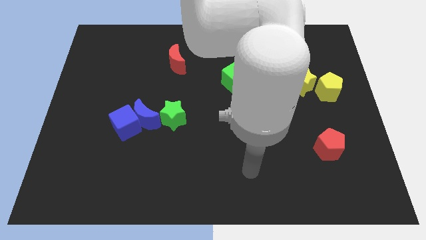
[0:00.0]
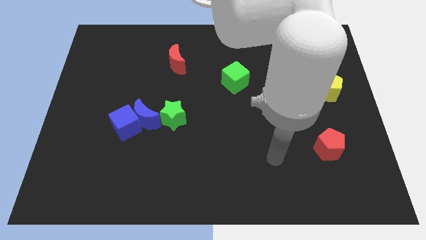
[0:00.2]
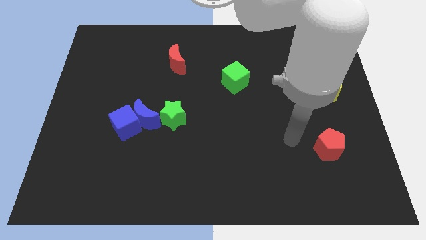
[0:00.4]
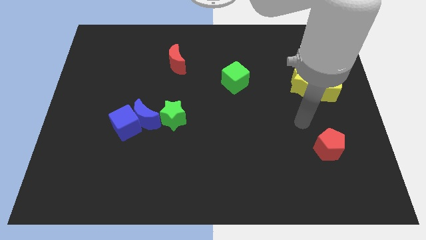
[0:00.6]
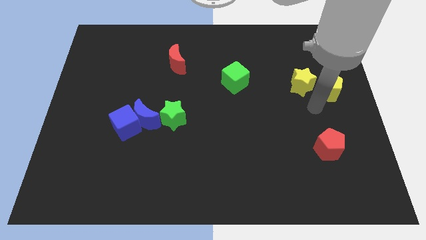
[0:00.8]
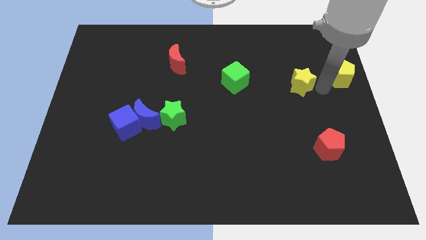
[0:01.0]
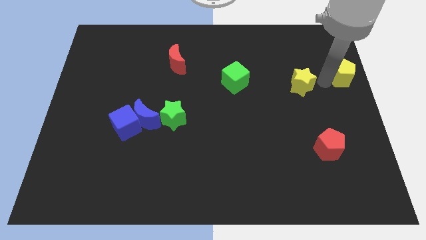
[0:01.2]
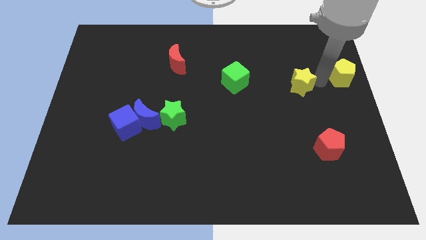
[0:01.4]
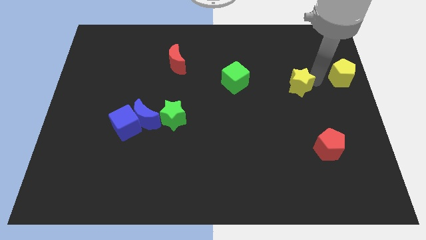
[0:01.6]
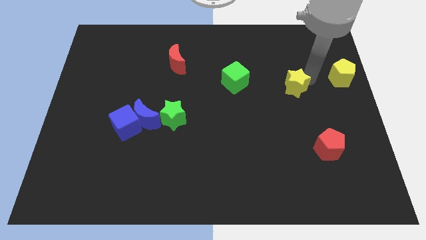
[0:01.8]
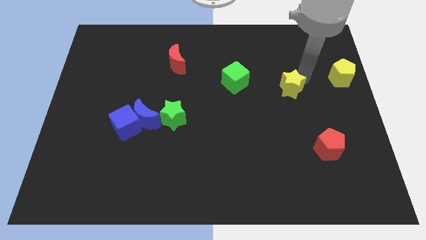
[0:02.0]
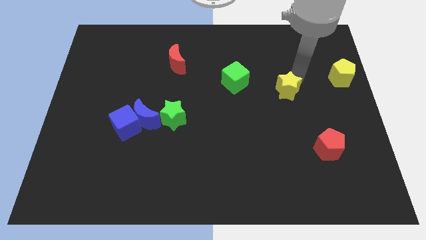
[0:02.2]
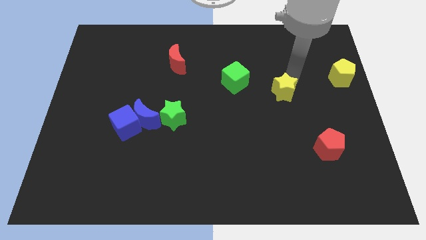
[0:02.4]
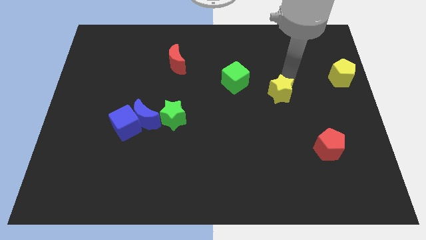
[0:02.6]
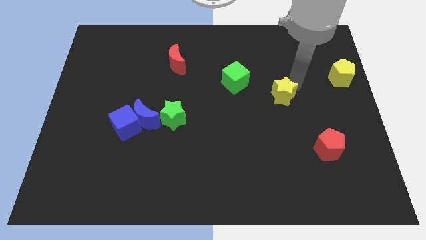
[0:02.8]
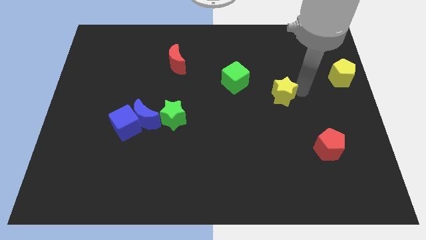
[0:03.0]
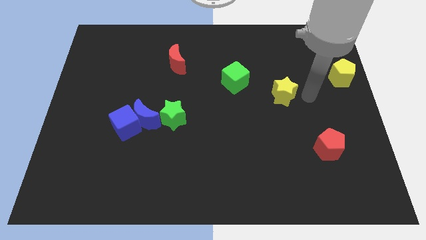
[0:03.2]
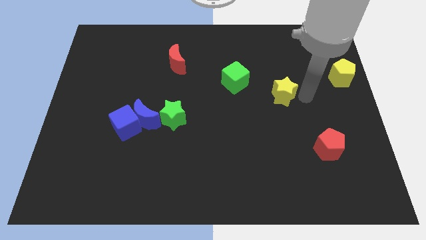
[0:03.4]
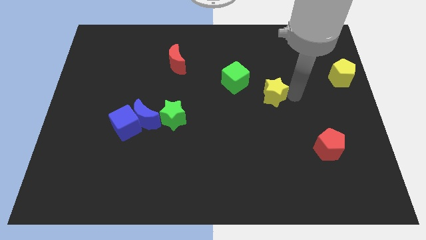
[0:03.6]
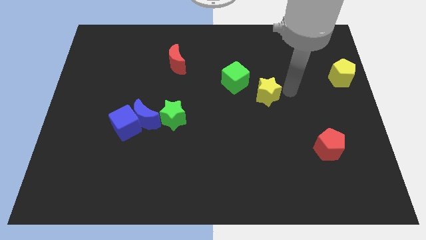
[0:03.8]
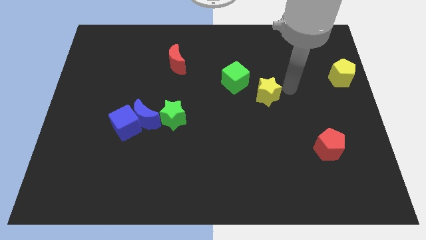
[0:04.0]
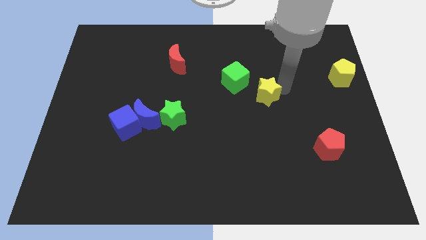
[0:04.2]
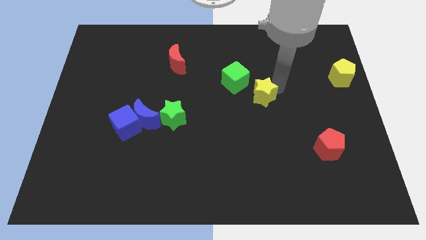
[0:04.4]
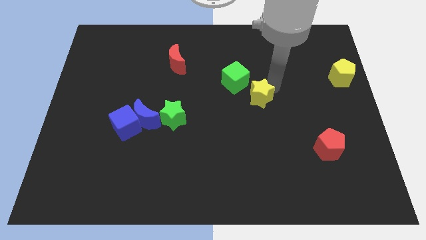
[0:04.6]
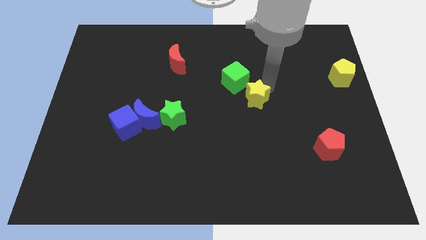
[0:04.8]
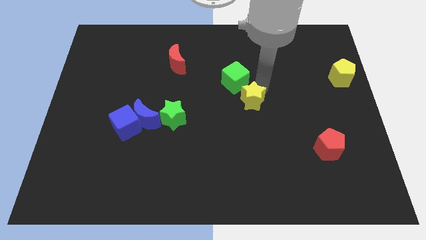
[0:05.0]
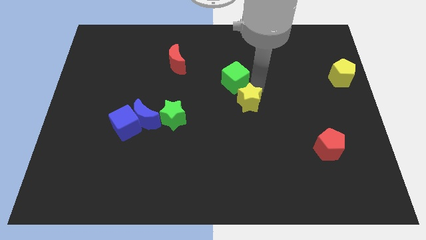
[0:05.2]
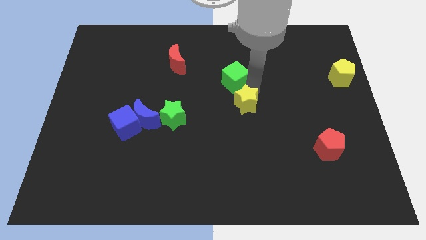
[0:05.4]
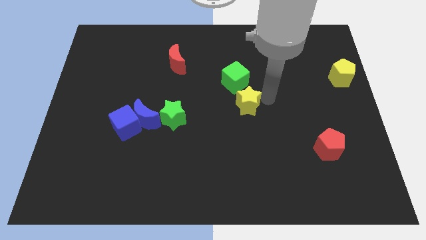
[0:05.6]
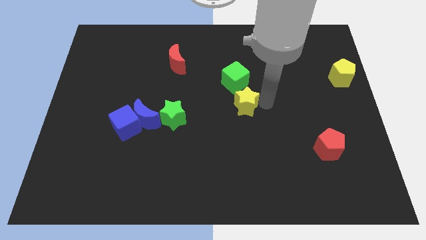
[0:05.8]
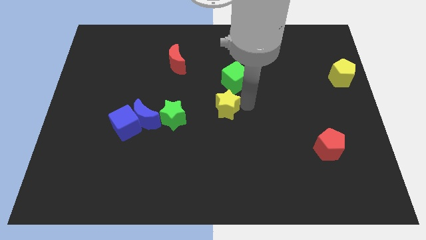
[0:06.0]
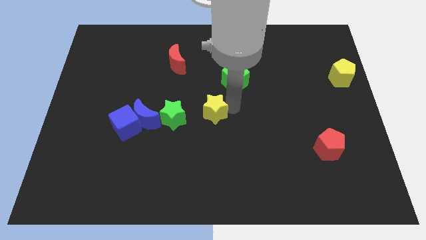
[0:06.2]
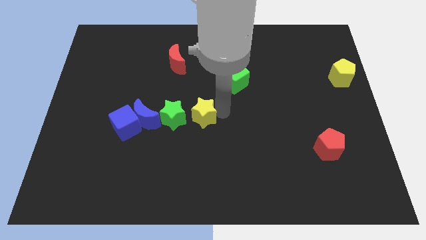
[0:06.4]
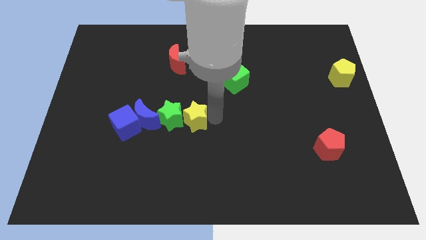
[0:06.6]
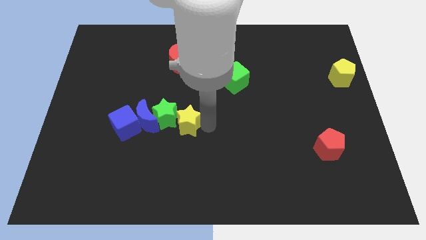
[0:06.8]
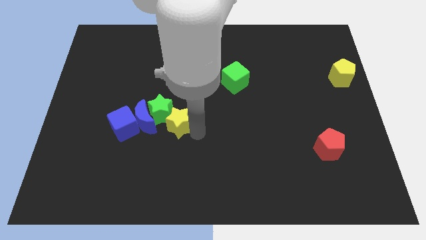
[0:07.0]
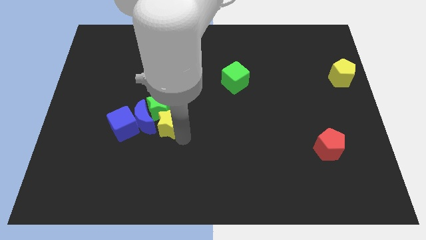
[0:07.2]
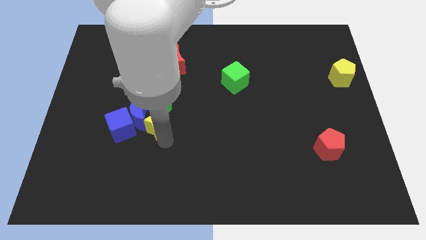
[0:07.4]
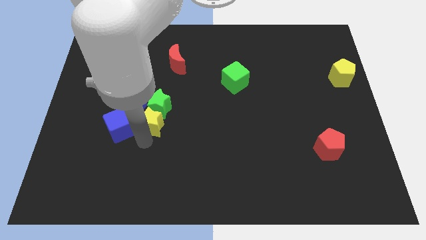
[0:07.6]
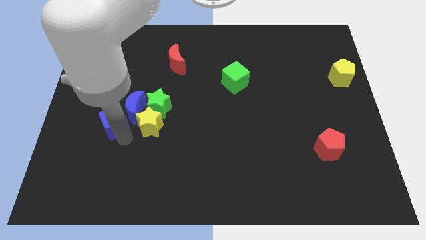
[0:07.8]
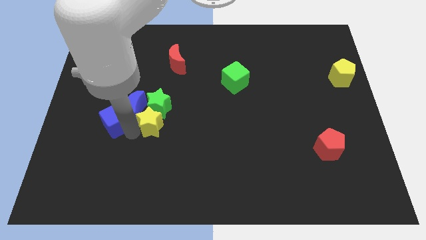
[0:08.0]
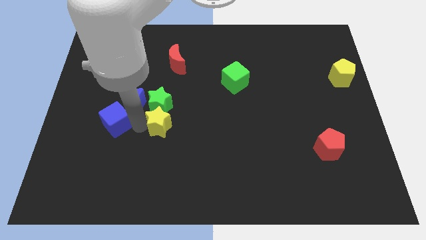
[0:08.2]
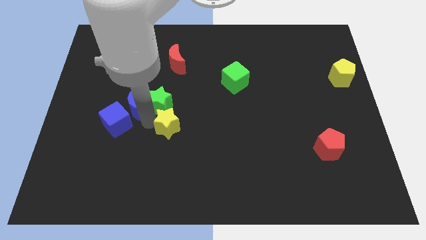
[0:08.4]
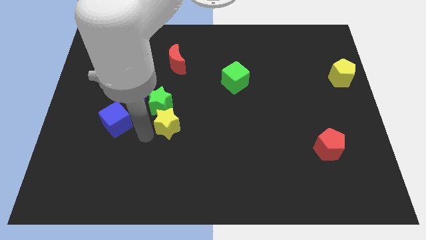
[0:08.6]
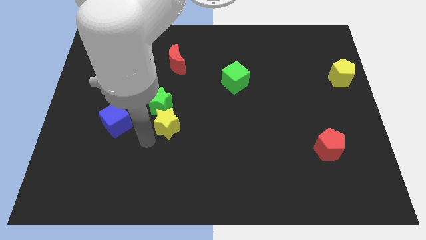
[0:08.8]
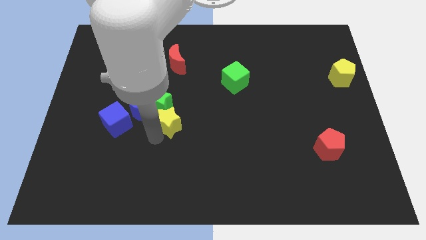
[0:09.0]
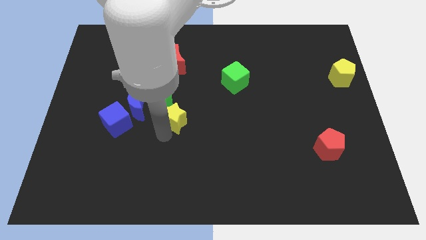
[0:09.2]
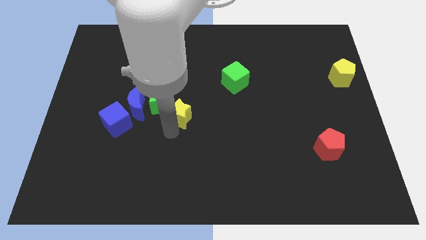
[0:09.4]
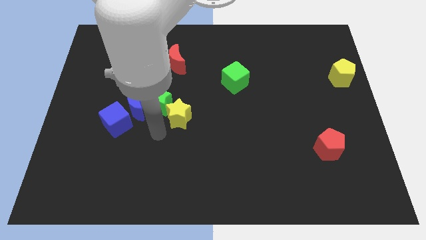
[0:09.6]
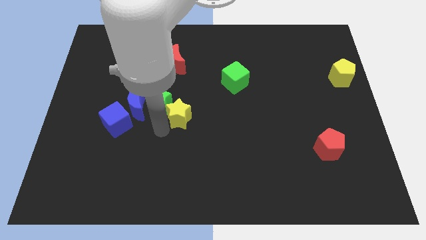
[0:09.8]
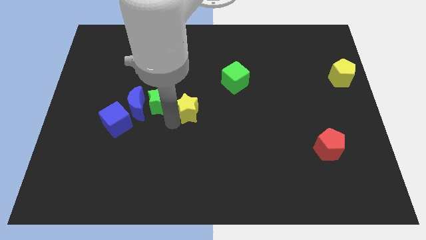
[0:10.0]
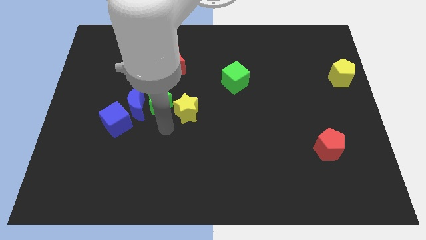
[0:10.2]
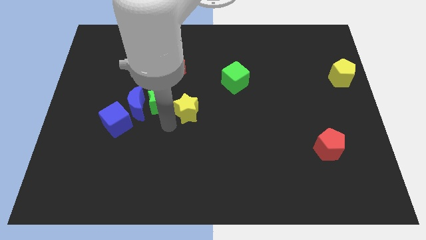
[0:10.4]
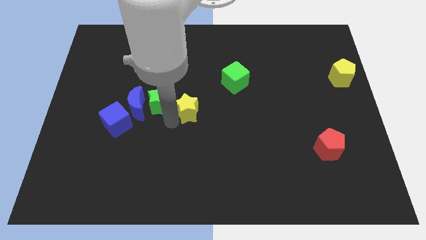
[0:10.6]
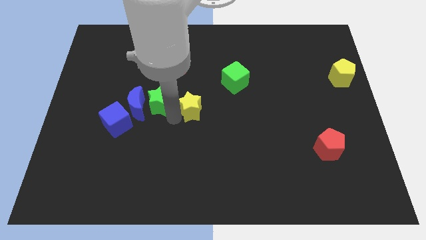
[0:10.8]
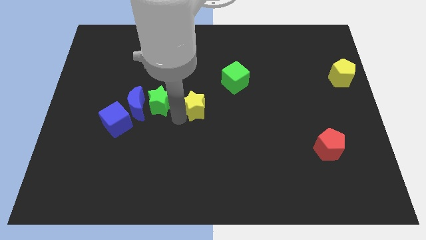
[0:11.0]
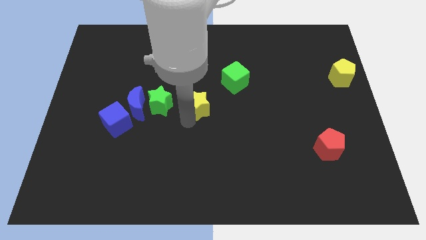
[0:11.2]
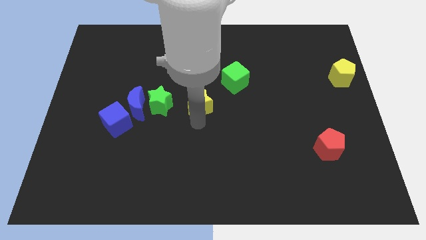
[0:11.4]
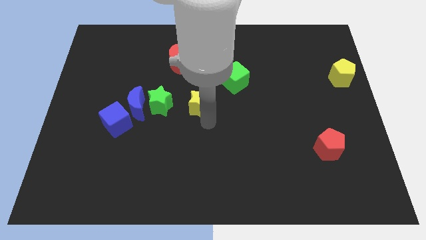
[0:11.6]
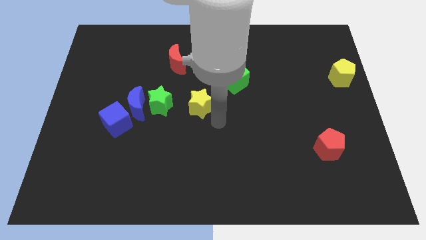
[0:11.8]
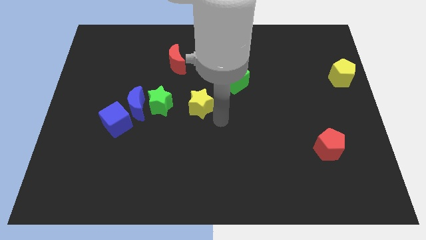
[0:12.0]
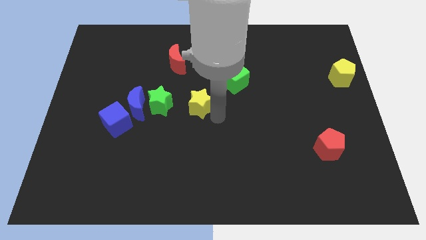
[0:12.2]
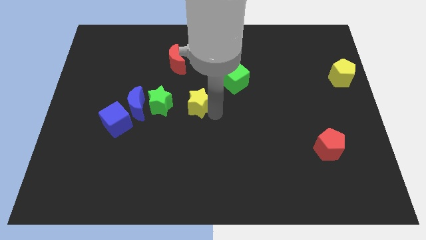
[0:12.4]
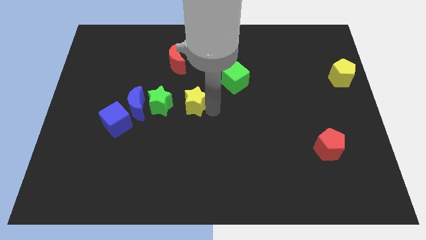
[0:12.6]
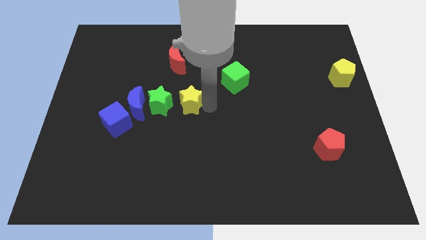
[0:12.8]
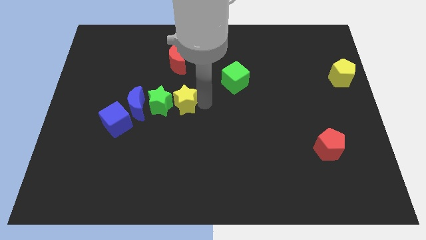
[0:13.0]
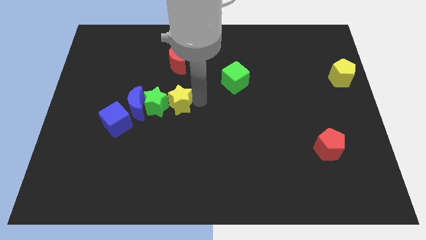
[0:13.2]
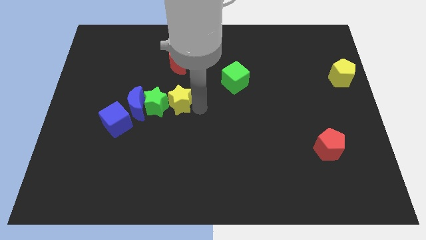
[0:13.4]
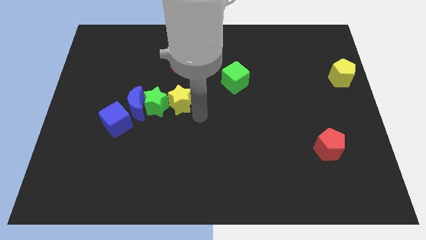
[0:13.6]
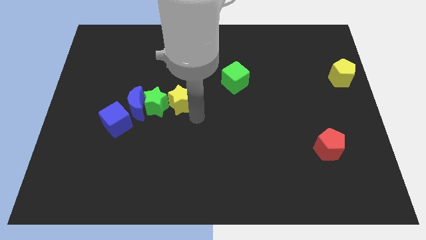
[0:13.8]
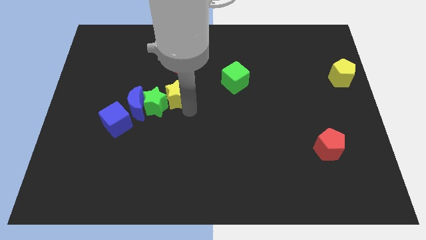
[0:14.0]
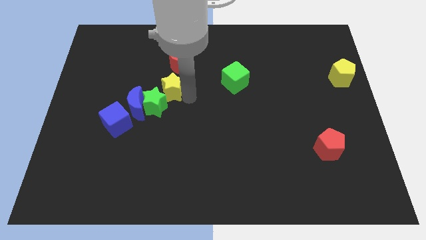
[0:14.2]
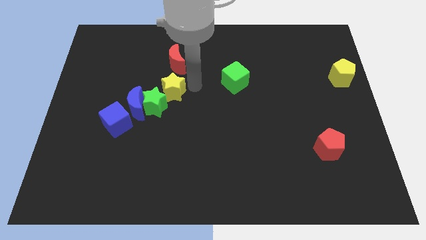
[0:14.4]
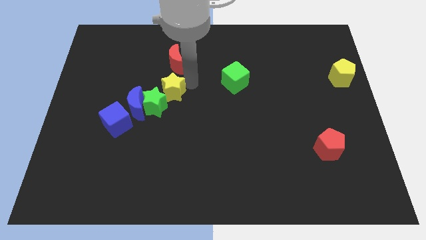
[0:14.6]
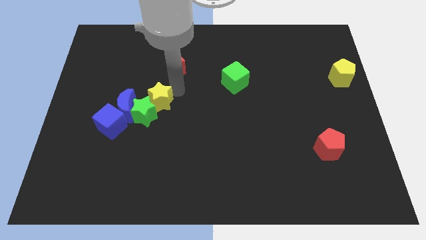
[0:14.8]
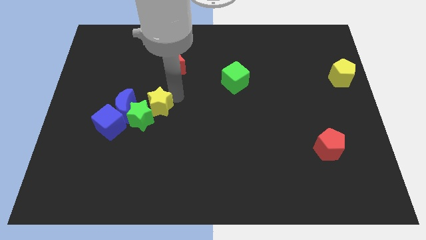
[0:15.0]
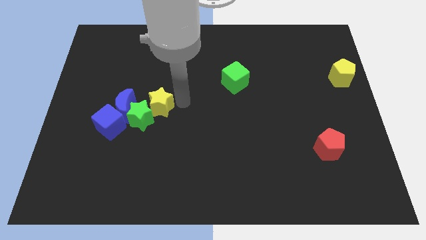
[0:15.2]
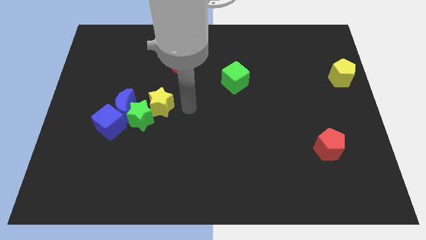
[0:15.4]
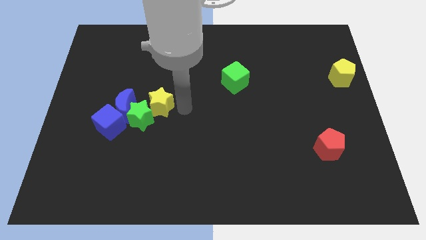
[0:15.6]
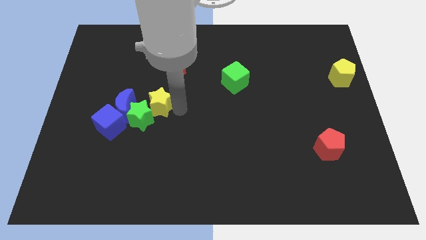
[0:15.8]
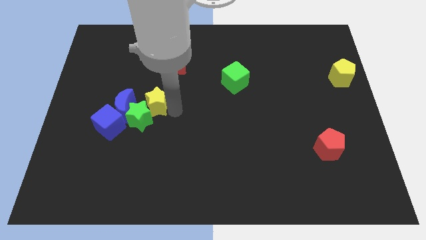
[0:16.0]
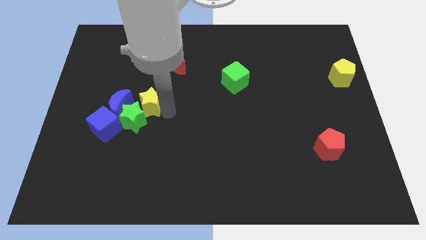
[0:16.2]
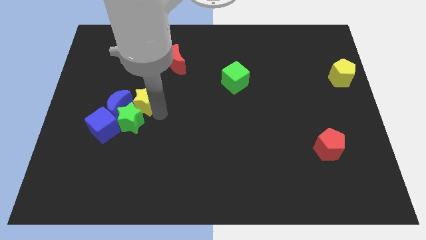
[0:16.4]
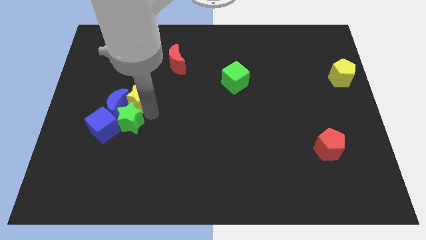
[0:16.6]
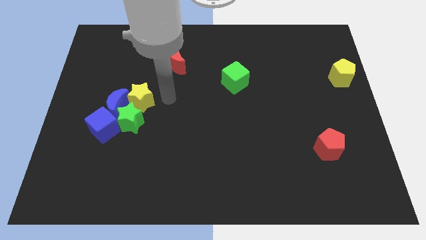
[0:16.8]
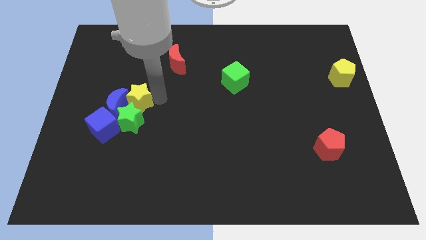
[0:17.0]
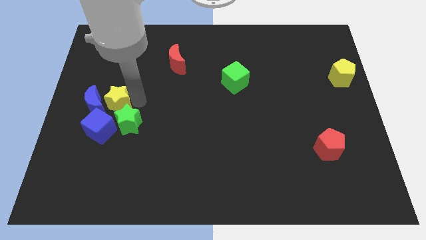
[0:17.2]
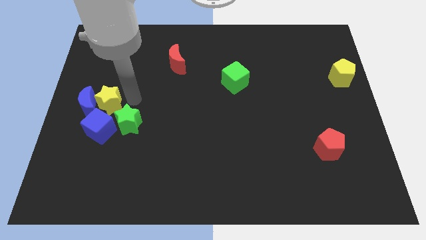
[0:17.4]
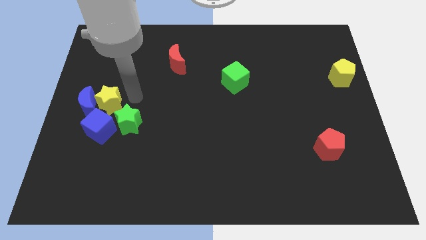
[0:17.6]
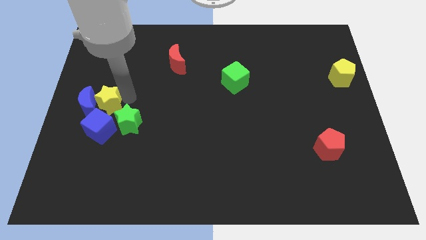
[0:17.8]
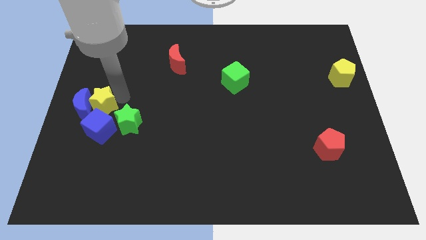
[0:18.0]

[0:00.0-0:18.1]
put the yellow star to the top left side of the blue cube
